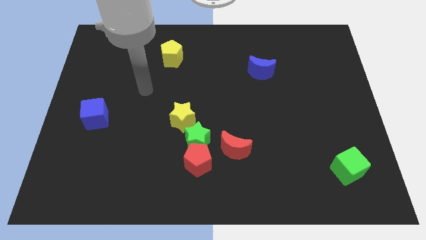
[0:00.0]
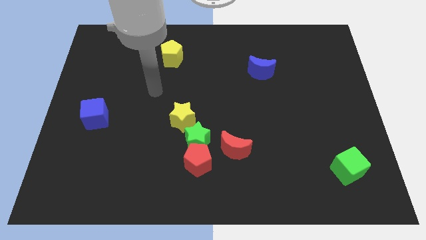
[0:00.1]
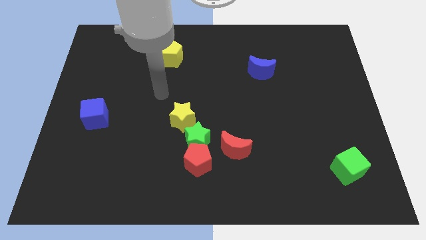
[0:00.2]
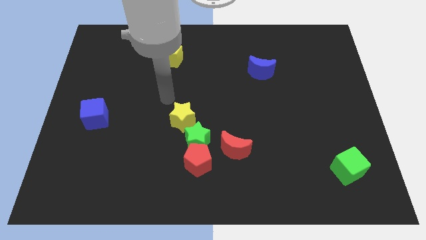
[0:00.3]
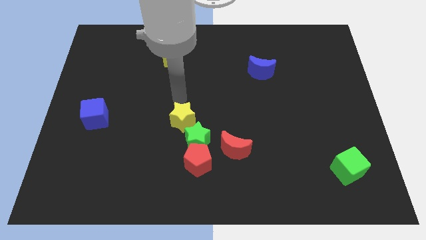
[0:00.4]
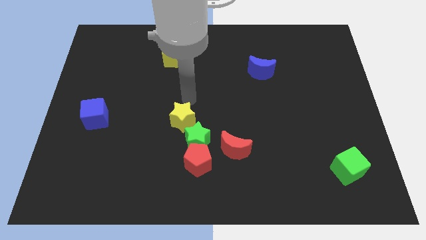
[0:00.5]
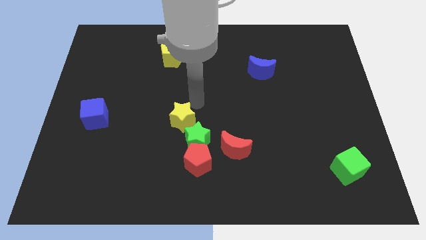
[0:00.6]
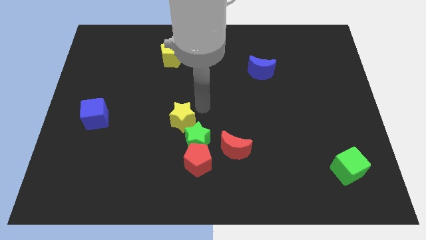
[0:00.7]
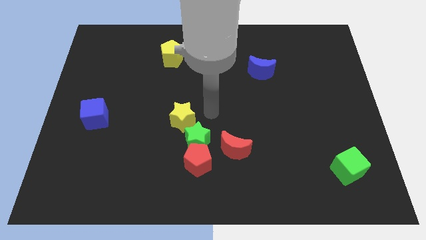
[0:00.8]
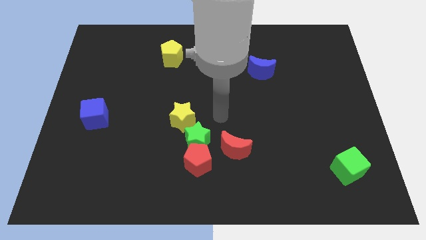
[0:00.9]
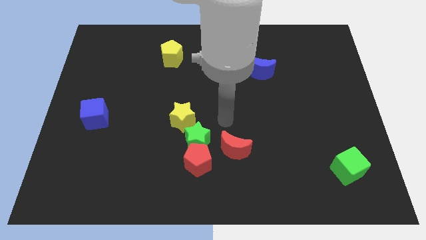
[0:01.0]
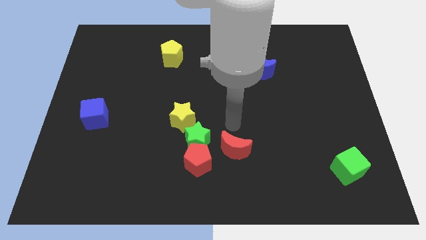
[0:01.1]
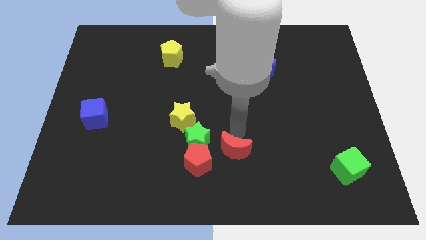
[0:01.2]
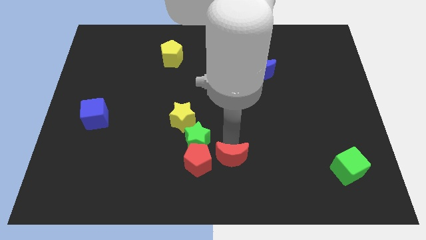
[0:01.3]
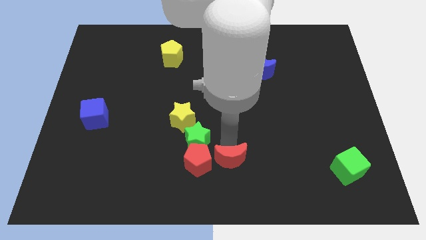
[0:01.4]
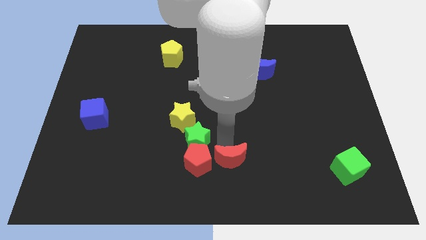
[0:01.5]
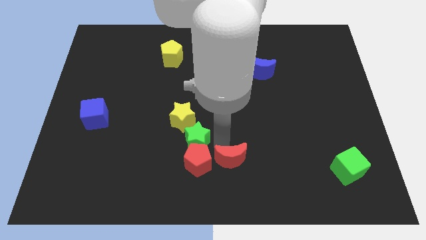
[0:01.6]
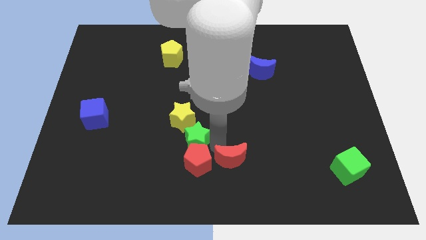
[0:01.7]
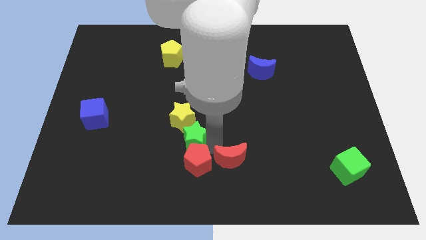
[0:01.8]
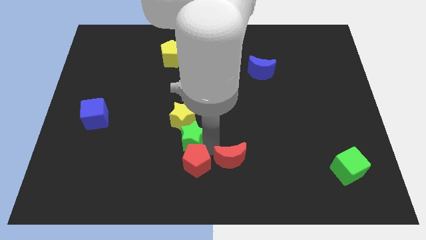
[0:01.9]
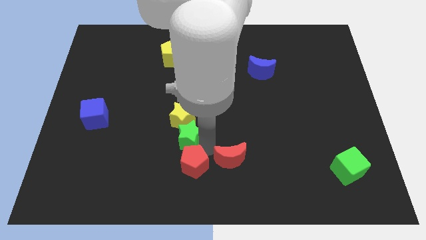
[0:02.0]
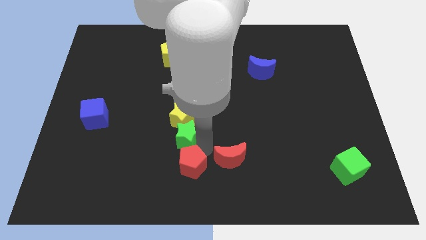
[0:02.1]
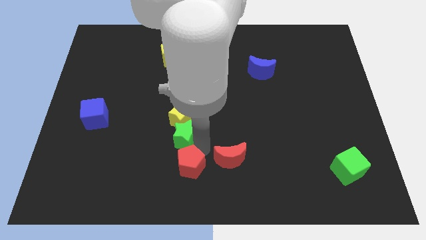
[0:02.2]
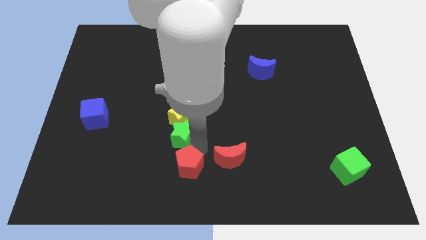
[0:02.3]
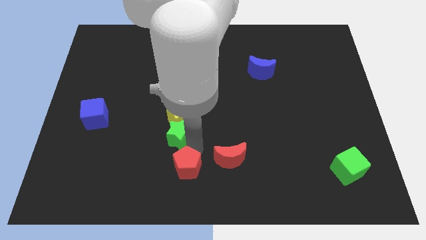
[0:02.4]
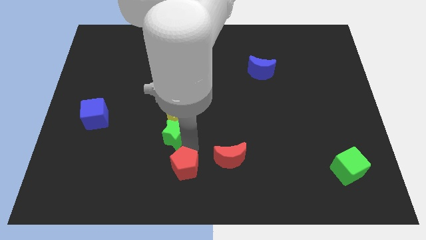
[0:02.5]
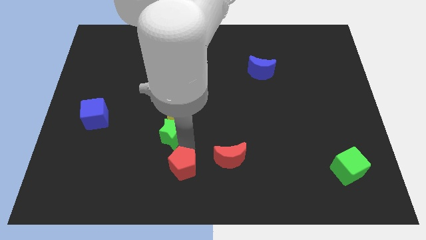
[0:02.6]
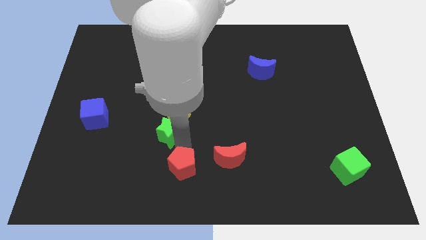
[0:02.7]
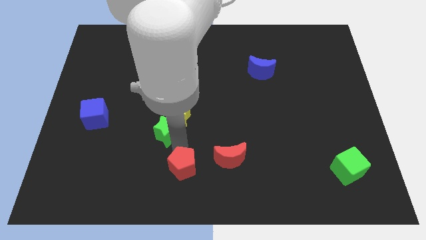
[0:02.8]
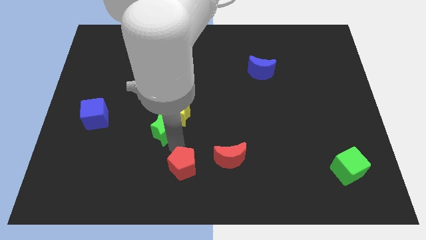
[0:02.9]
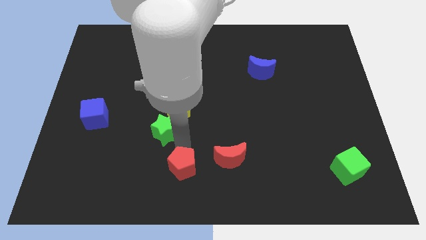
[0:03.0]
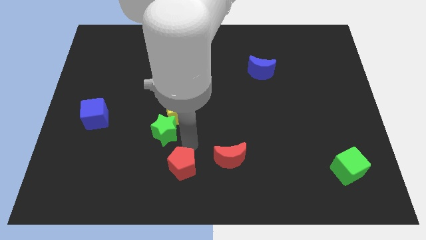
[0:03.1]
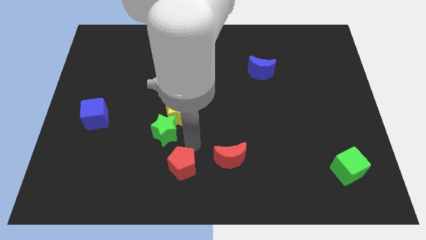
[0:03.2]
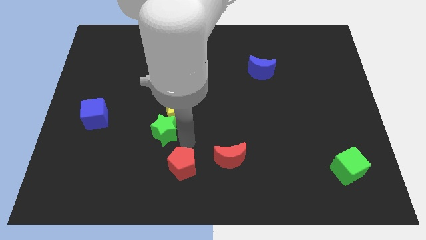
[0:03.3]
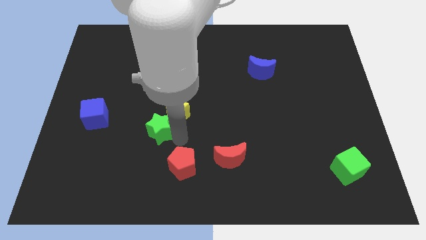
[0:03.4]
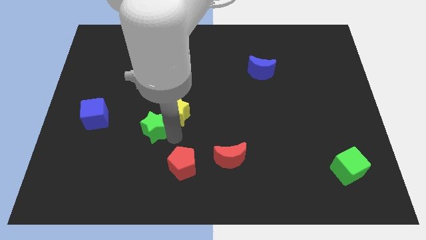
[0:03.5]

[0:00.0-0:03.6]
separate the green star from the group of blocks

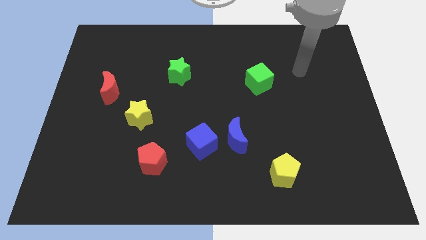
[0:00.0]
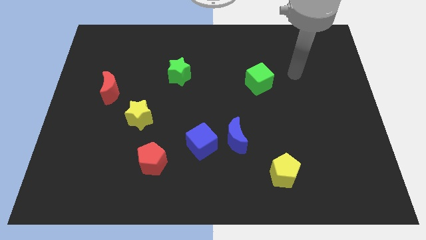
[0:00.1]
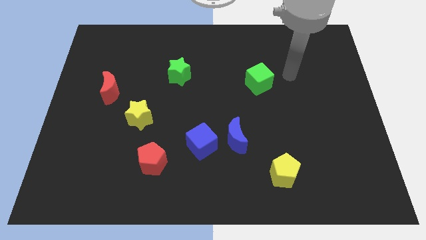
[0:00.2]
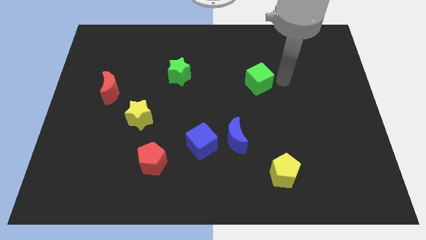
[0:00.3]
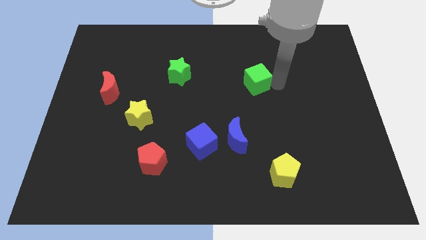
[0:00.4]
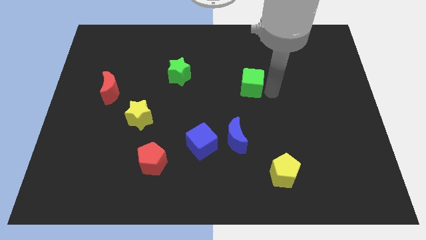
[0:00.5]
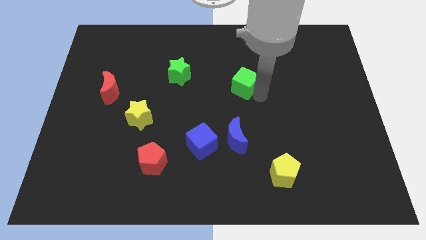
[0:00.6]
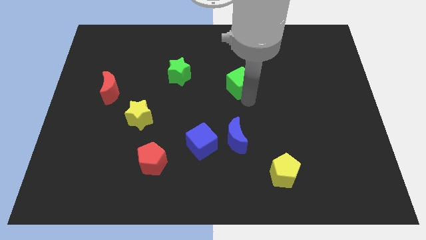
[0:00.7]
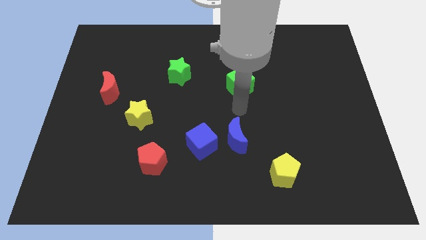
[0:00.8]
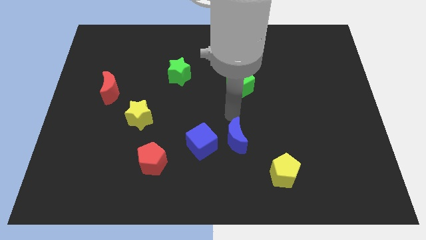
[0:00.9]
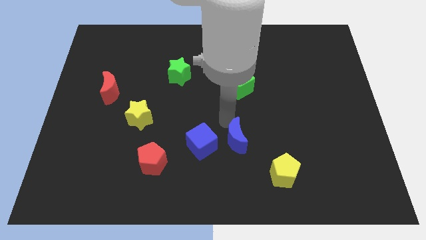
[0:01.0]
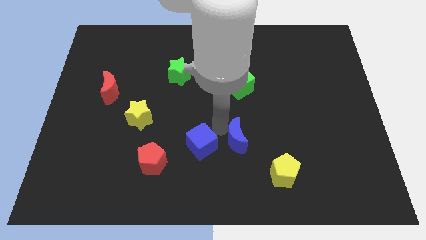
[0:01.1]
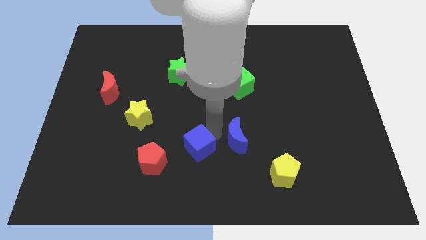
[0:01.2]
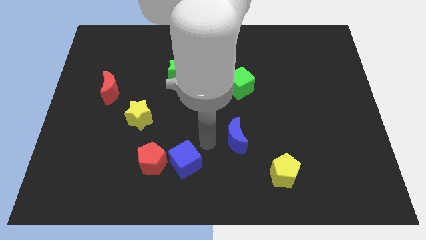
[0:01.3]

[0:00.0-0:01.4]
move the blue moon away from the blue cube

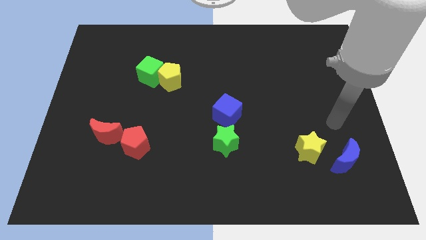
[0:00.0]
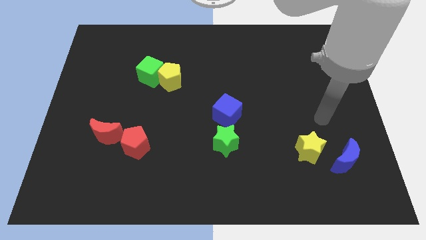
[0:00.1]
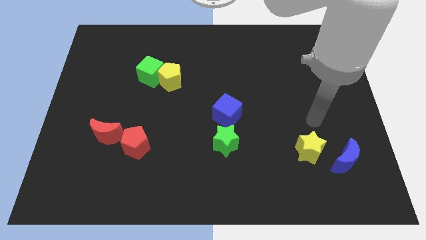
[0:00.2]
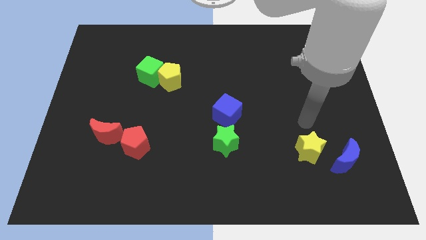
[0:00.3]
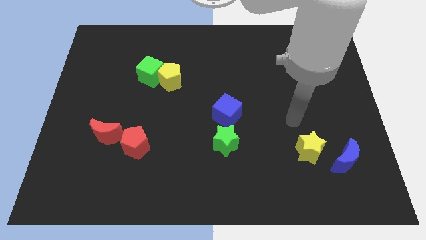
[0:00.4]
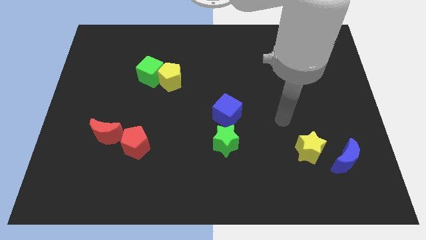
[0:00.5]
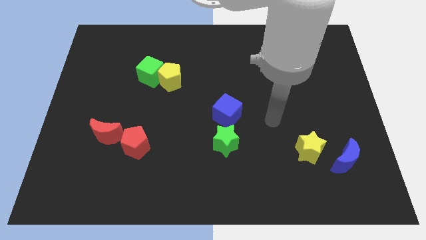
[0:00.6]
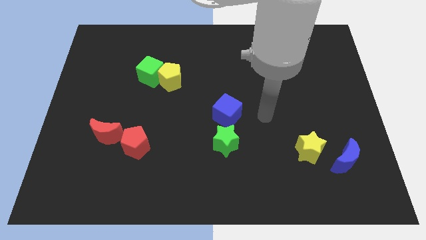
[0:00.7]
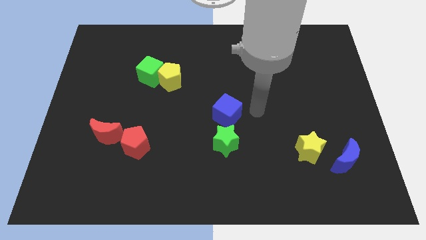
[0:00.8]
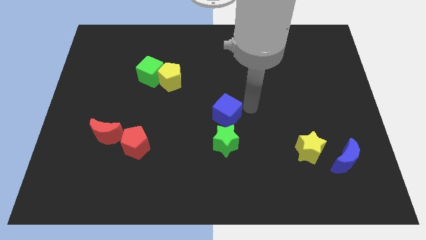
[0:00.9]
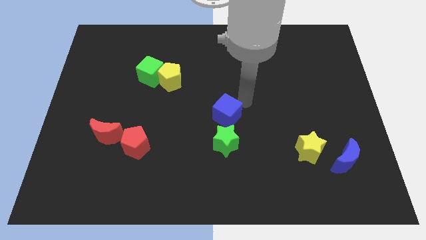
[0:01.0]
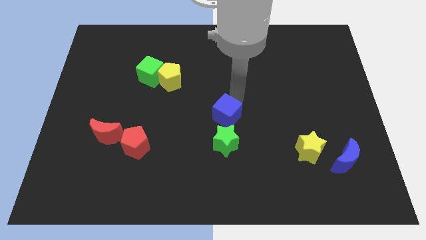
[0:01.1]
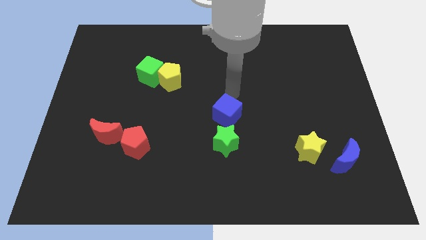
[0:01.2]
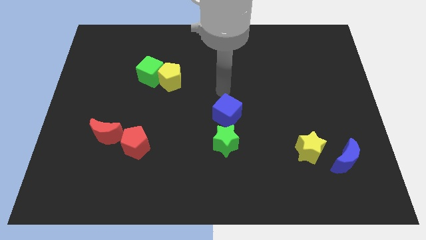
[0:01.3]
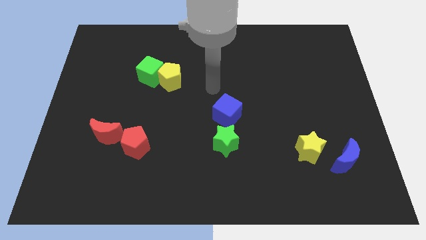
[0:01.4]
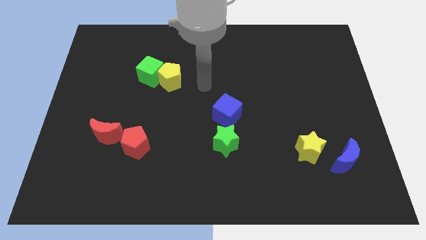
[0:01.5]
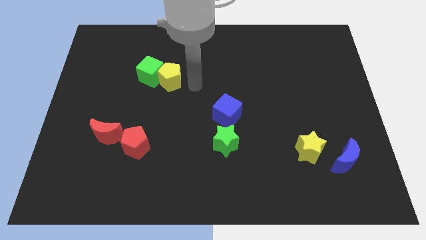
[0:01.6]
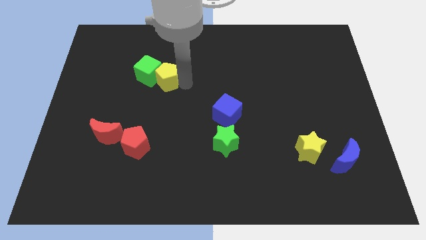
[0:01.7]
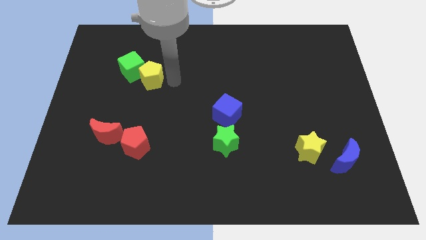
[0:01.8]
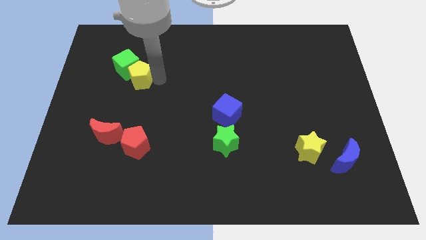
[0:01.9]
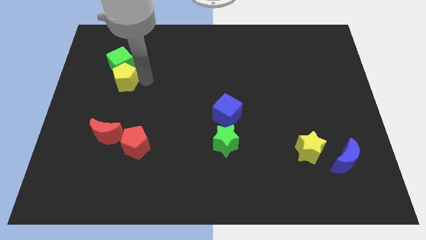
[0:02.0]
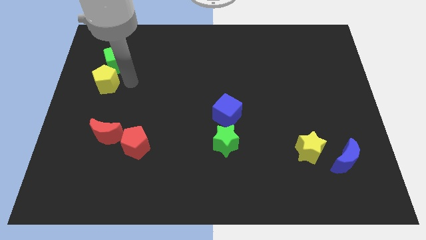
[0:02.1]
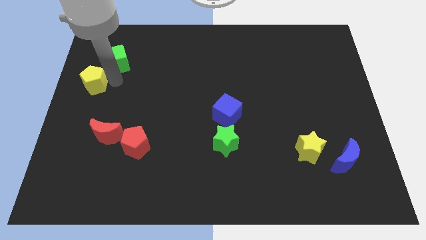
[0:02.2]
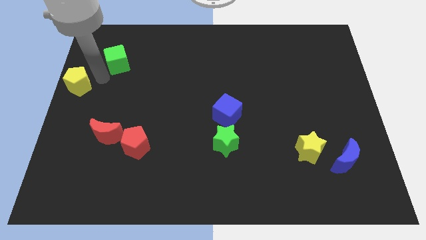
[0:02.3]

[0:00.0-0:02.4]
separate the green cube from the yellow pentagon

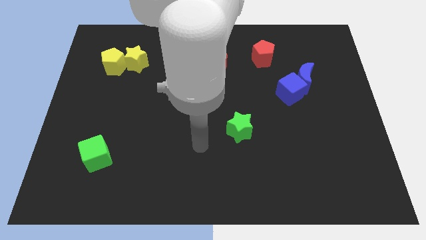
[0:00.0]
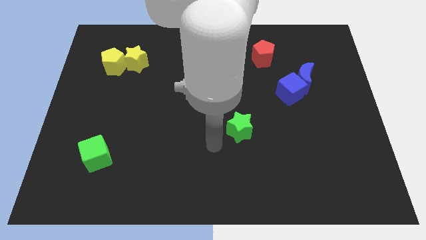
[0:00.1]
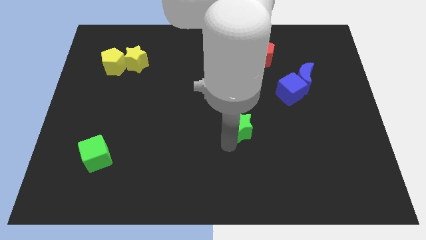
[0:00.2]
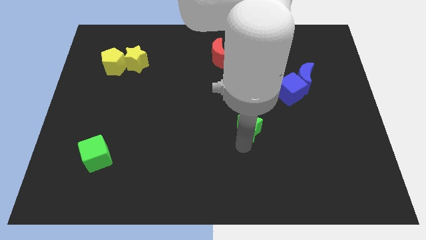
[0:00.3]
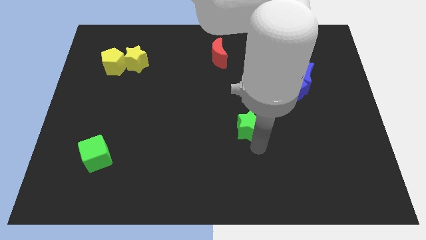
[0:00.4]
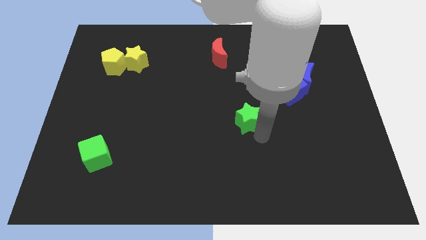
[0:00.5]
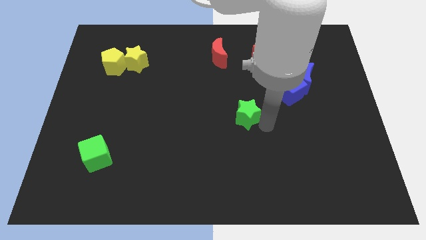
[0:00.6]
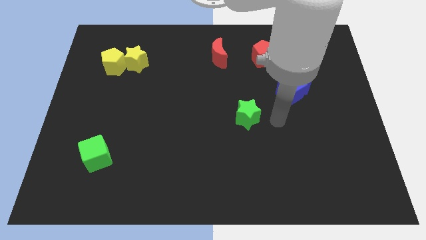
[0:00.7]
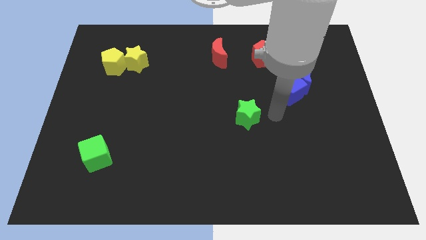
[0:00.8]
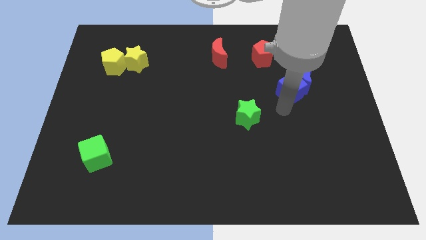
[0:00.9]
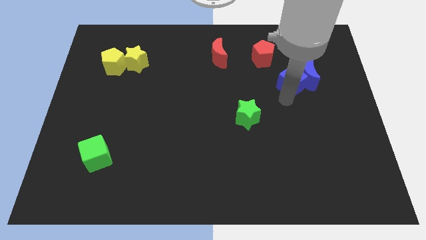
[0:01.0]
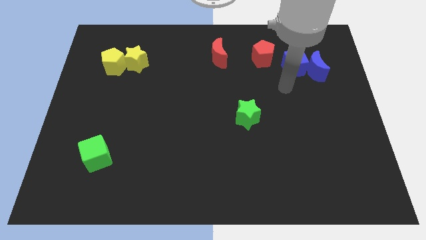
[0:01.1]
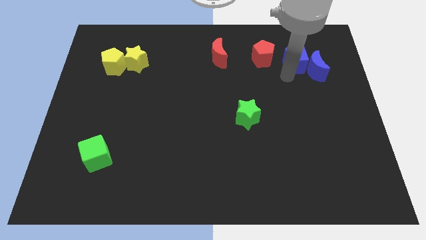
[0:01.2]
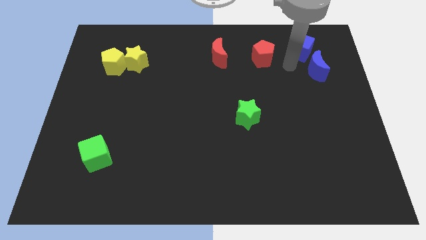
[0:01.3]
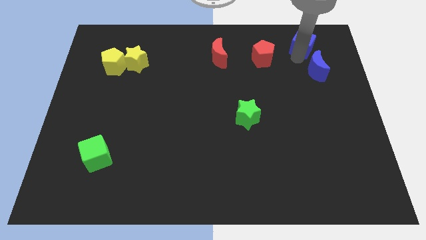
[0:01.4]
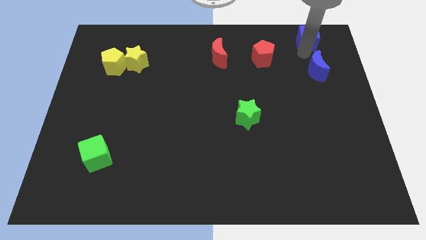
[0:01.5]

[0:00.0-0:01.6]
separate the blue moon from the blue cube

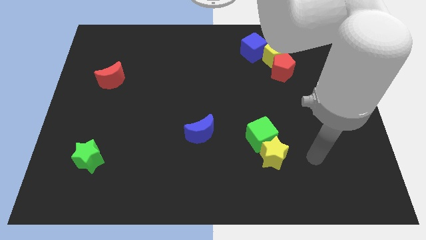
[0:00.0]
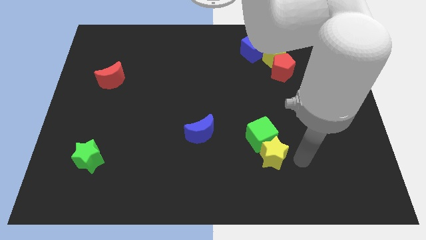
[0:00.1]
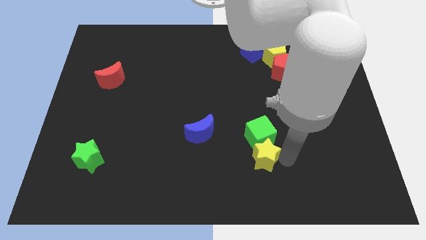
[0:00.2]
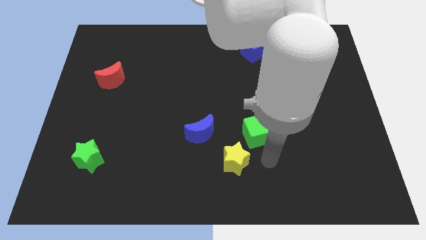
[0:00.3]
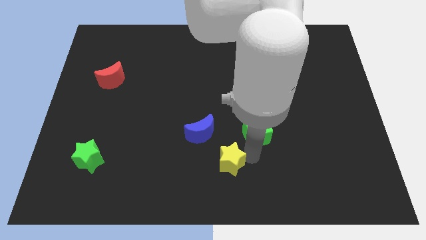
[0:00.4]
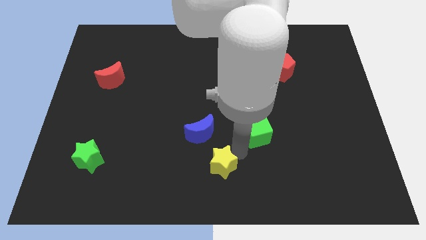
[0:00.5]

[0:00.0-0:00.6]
pull the green cube apart from the yellow star
